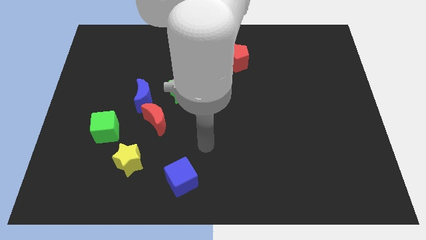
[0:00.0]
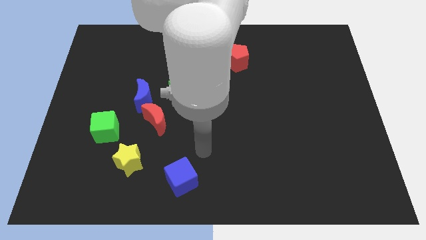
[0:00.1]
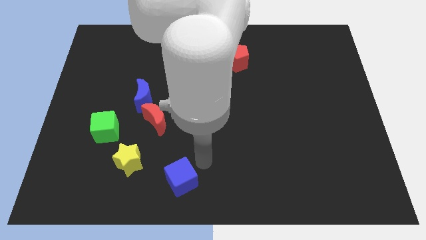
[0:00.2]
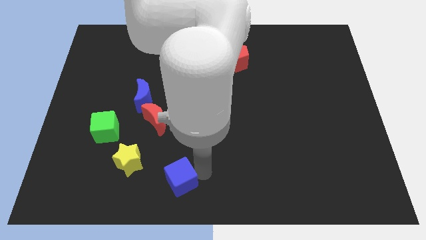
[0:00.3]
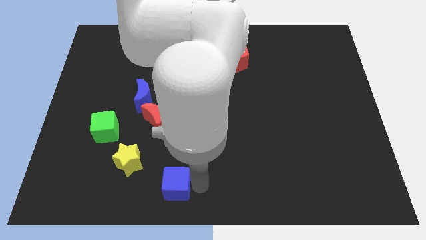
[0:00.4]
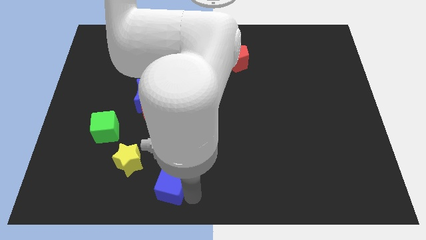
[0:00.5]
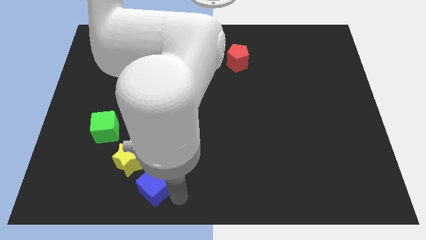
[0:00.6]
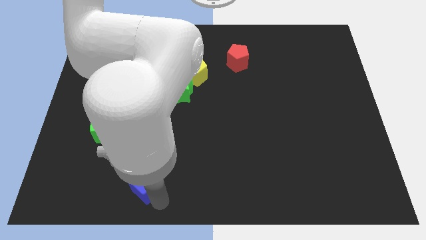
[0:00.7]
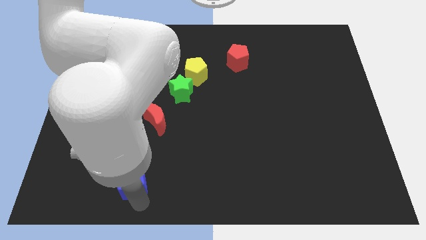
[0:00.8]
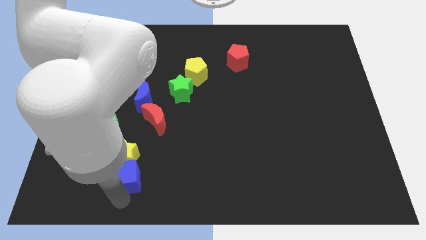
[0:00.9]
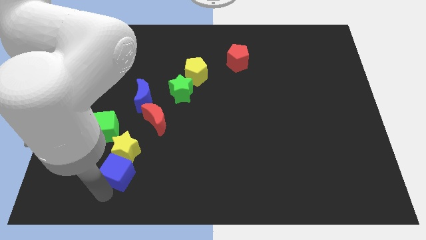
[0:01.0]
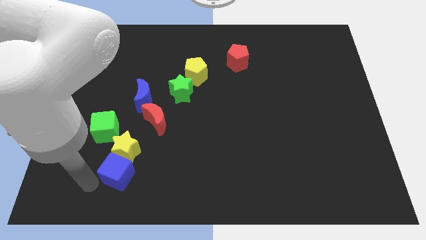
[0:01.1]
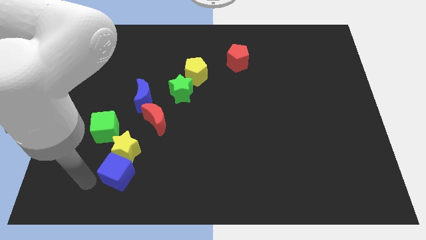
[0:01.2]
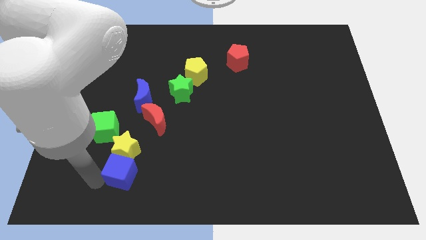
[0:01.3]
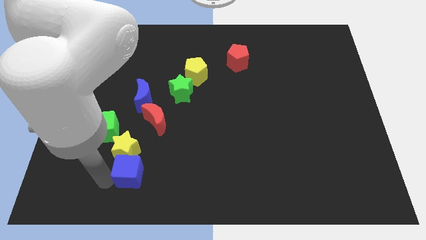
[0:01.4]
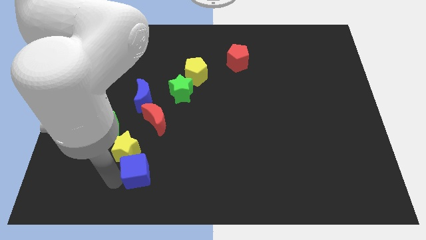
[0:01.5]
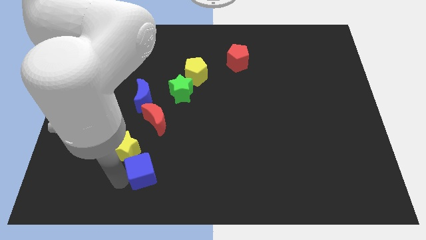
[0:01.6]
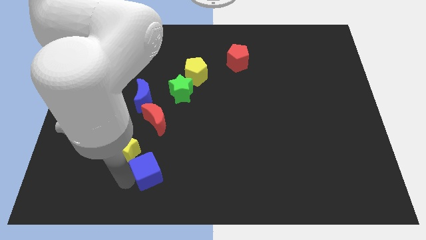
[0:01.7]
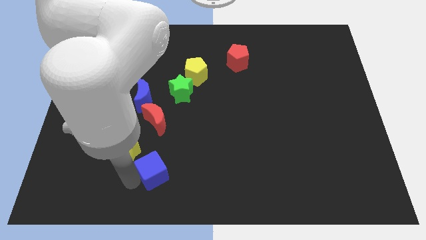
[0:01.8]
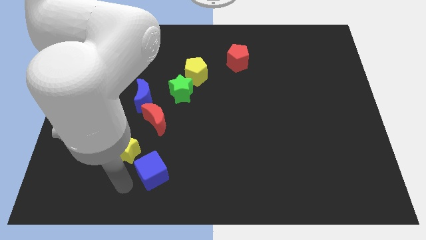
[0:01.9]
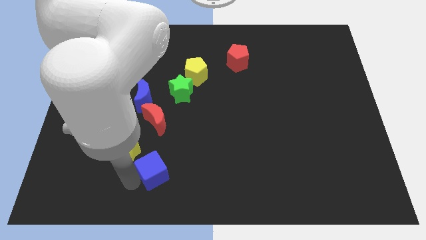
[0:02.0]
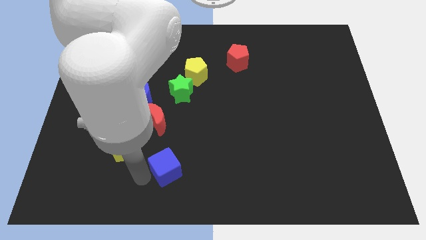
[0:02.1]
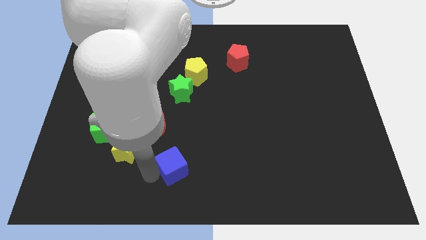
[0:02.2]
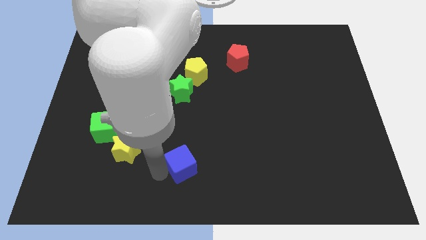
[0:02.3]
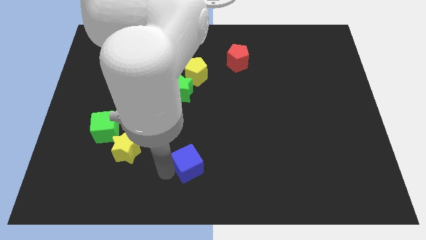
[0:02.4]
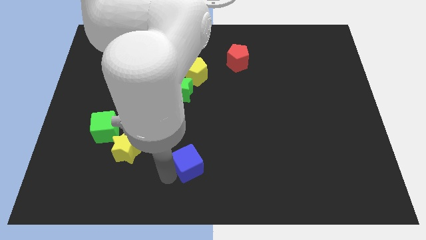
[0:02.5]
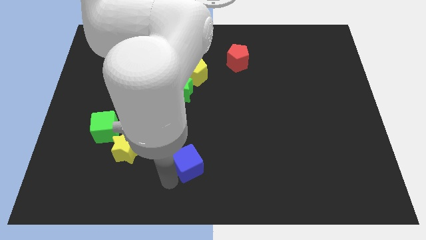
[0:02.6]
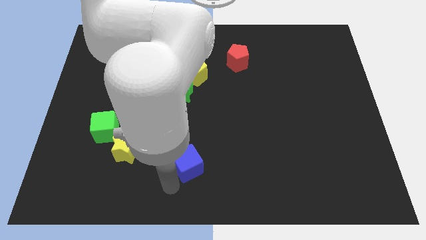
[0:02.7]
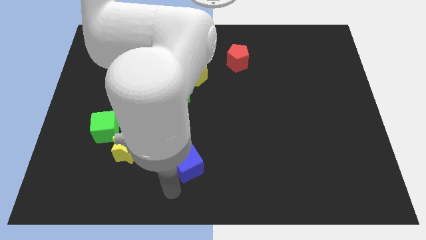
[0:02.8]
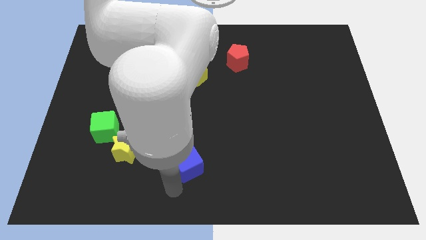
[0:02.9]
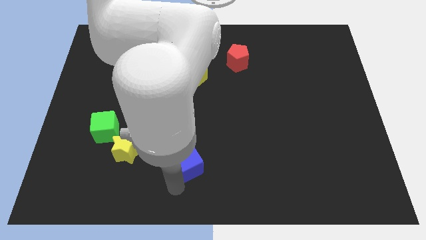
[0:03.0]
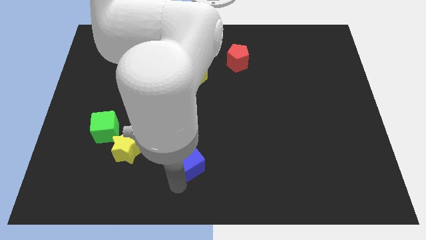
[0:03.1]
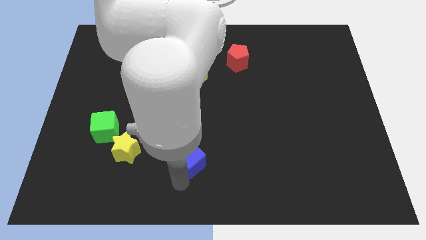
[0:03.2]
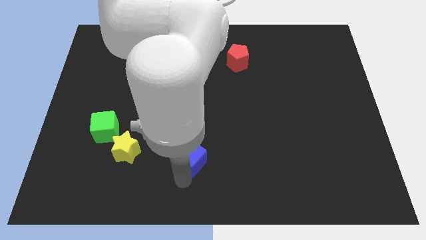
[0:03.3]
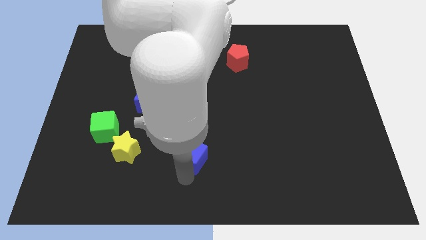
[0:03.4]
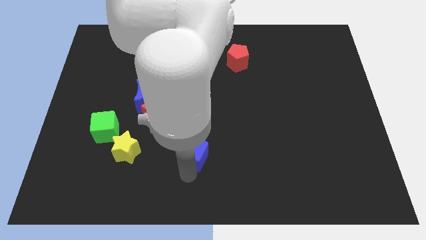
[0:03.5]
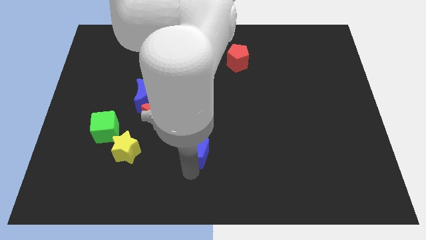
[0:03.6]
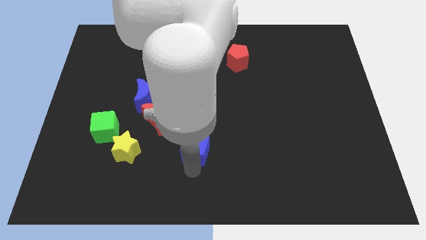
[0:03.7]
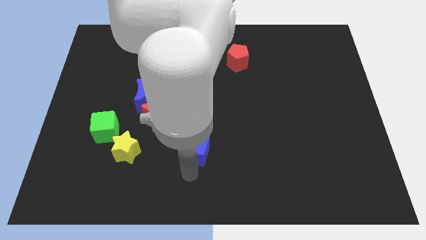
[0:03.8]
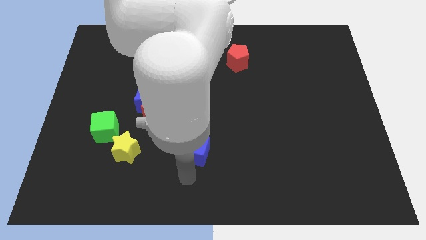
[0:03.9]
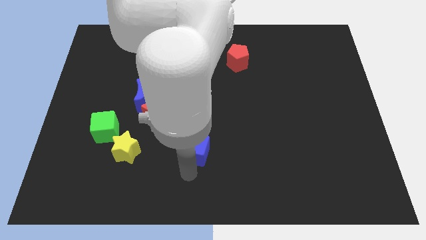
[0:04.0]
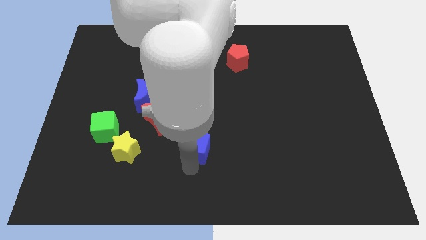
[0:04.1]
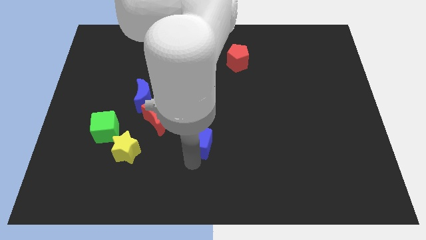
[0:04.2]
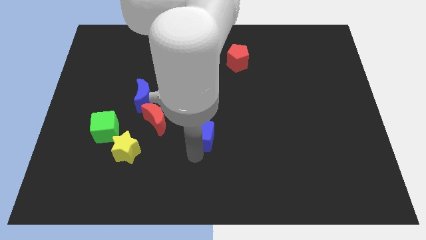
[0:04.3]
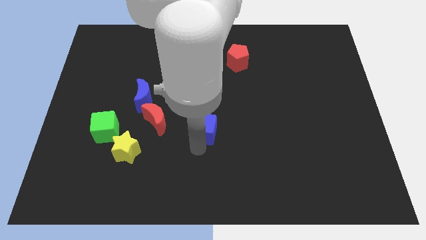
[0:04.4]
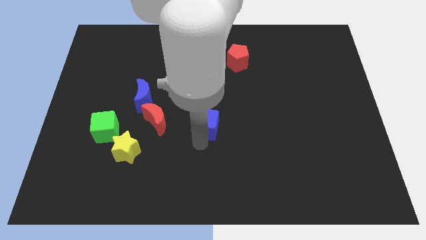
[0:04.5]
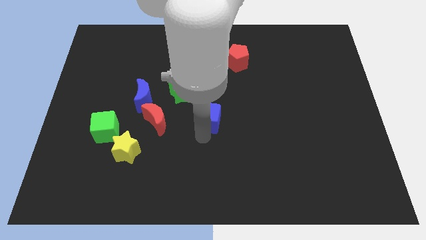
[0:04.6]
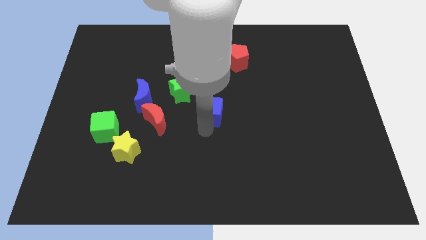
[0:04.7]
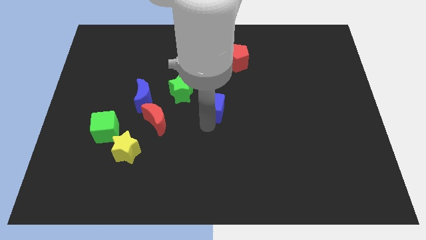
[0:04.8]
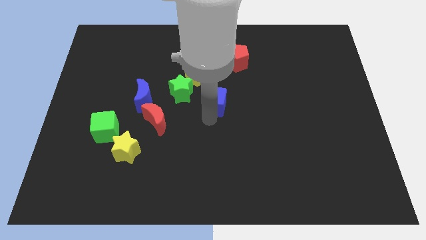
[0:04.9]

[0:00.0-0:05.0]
put the blue cube to the bottom right side of the yellow pentagon

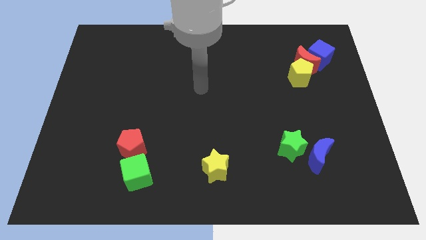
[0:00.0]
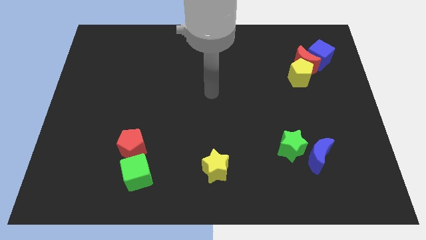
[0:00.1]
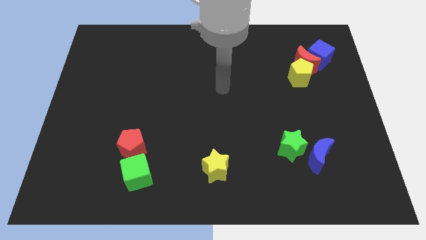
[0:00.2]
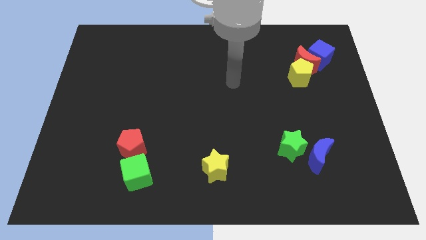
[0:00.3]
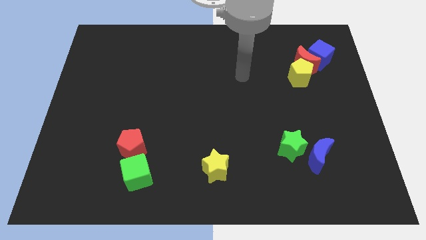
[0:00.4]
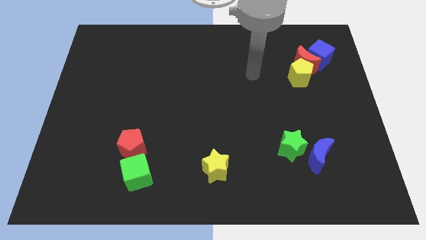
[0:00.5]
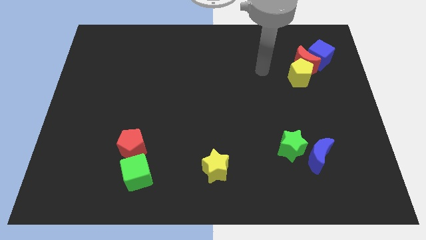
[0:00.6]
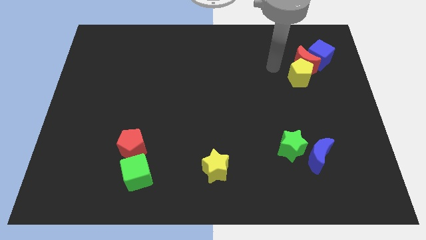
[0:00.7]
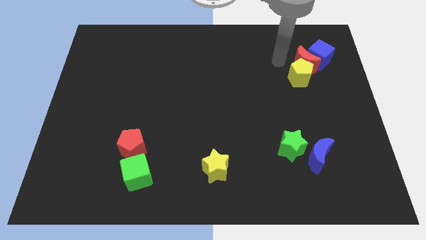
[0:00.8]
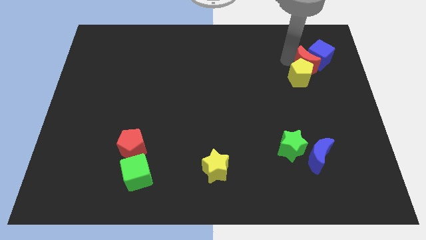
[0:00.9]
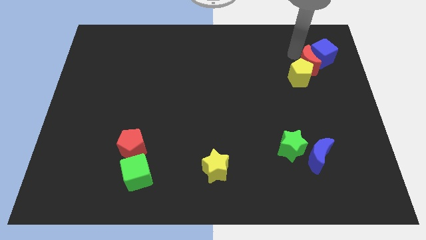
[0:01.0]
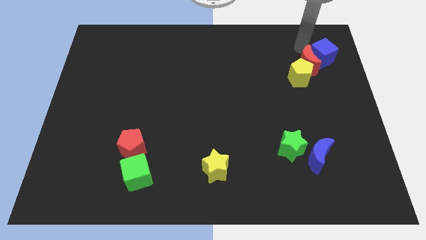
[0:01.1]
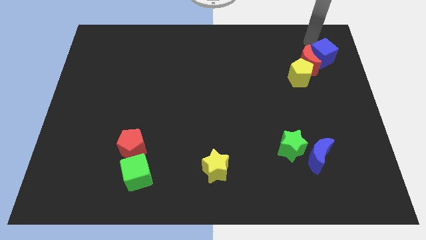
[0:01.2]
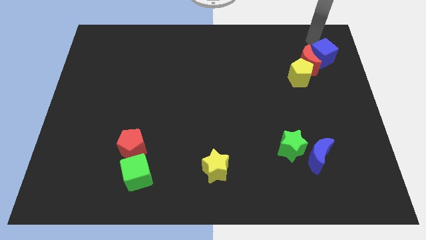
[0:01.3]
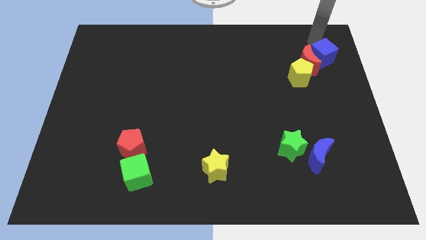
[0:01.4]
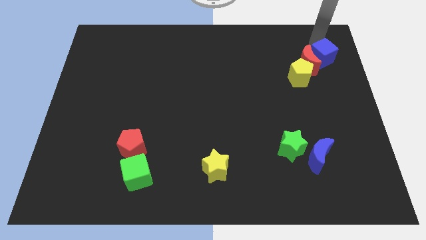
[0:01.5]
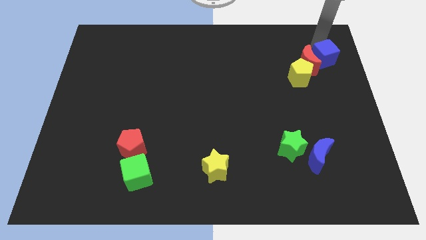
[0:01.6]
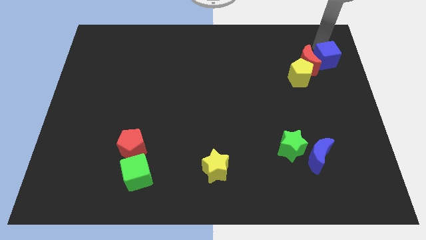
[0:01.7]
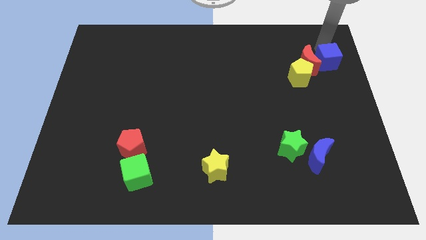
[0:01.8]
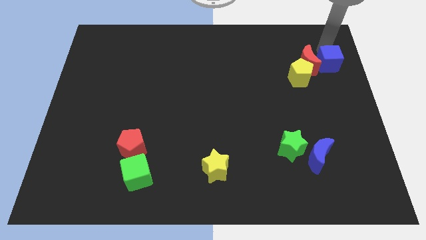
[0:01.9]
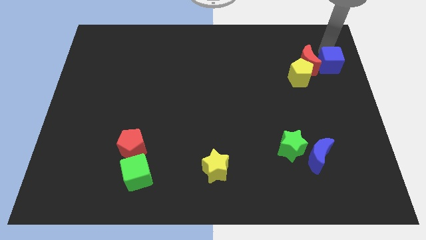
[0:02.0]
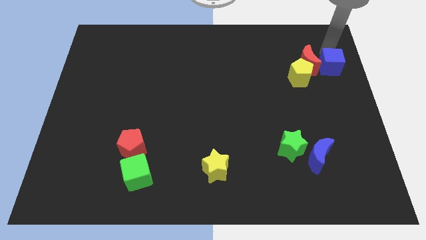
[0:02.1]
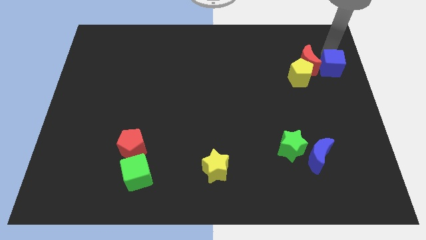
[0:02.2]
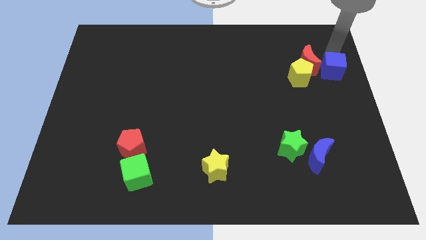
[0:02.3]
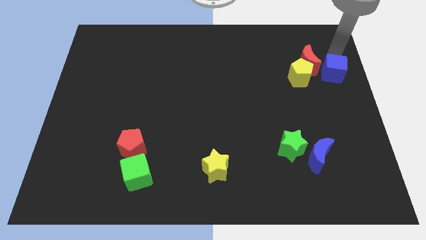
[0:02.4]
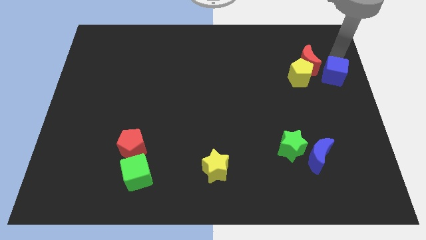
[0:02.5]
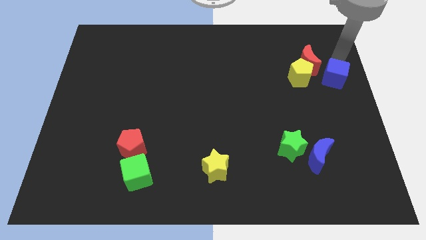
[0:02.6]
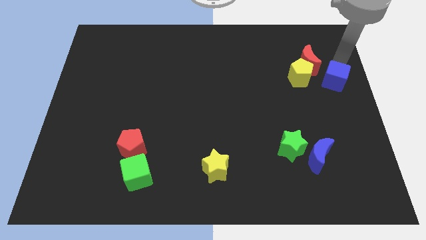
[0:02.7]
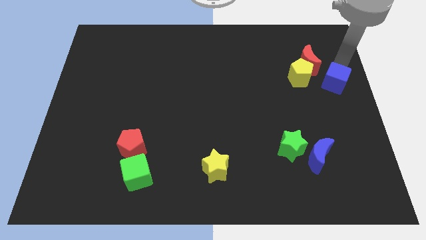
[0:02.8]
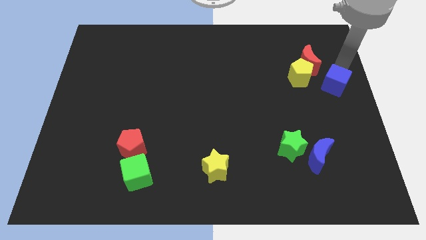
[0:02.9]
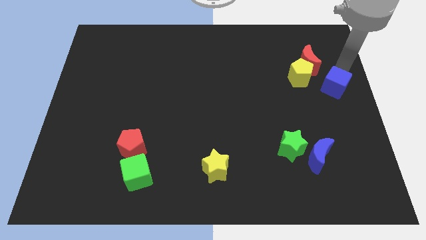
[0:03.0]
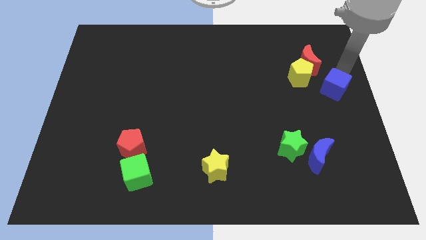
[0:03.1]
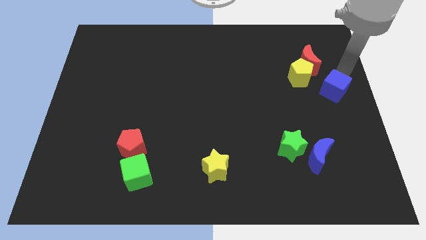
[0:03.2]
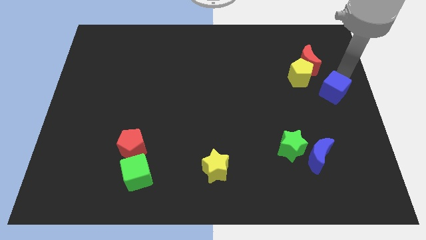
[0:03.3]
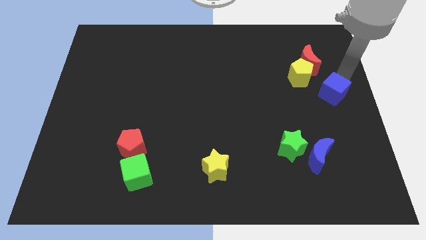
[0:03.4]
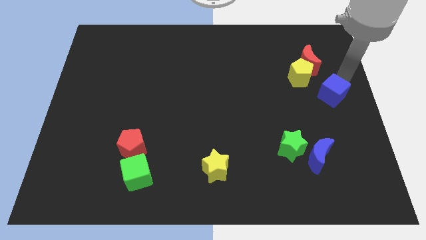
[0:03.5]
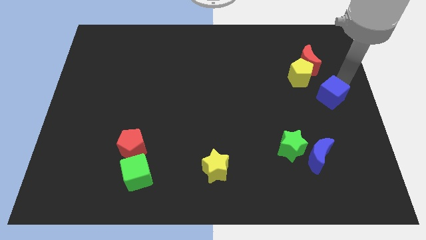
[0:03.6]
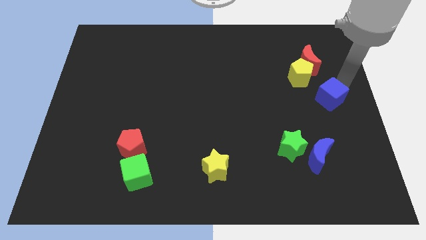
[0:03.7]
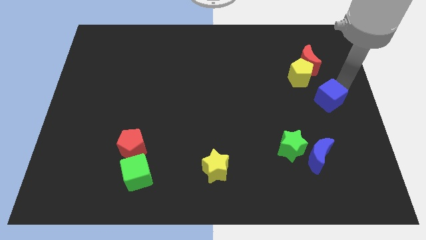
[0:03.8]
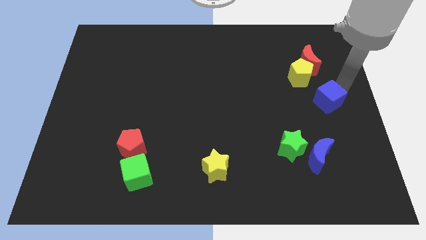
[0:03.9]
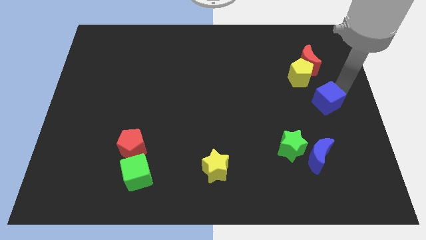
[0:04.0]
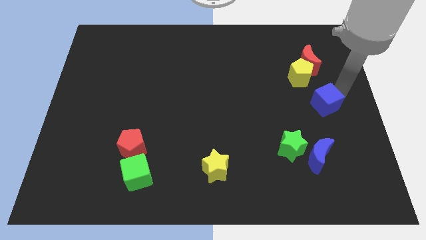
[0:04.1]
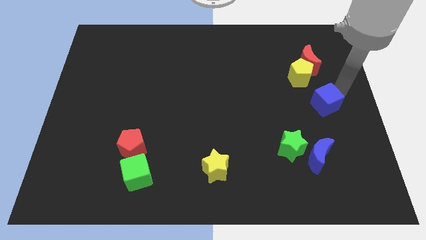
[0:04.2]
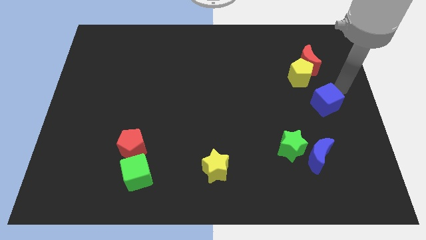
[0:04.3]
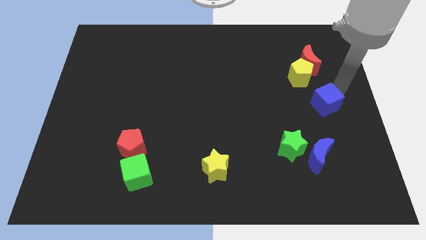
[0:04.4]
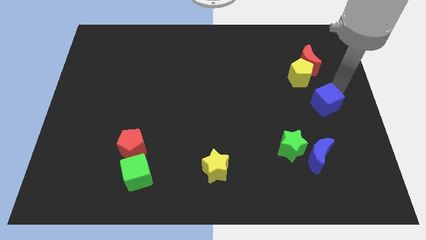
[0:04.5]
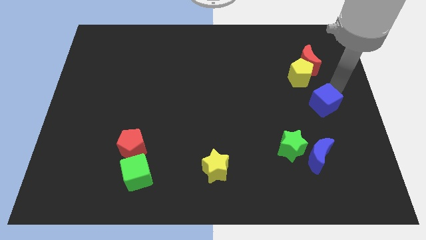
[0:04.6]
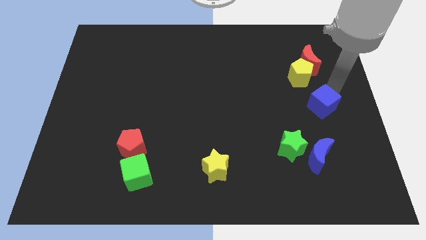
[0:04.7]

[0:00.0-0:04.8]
push the blue cube to the top of the blue moon
